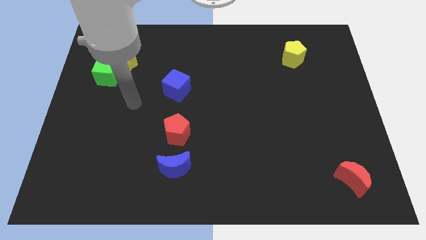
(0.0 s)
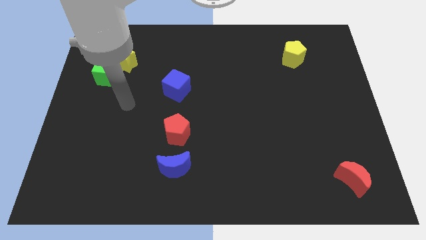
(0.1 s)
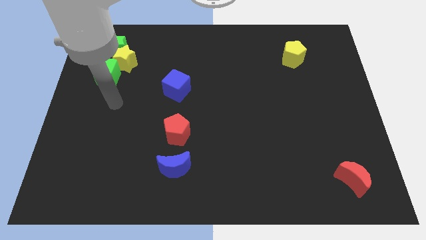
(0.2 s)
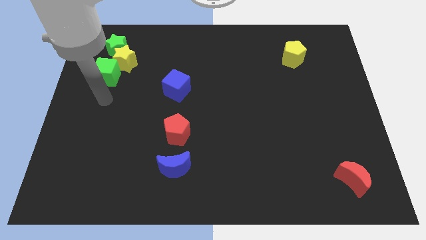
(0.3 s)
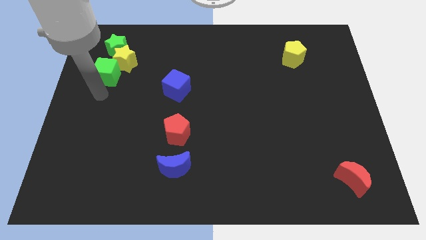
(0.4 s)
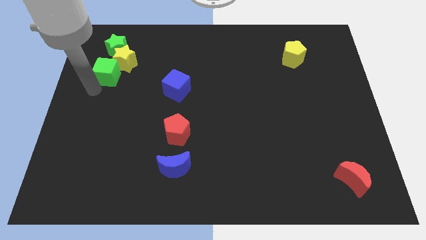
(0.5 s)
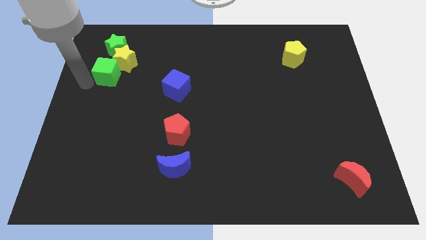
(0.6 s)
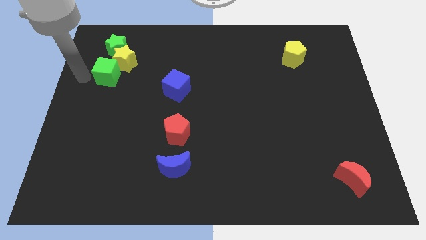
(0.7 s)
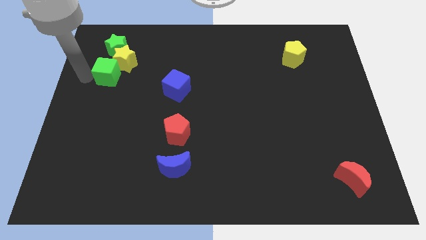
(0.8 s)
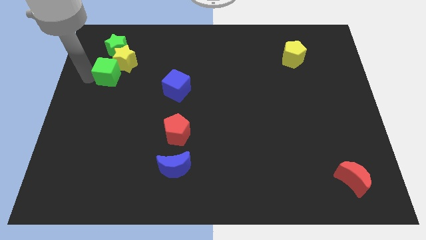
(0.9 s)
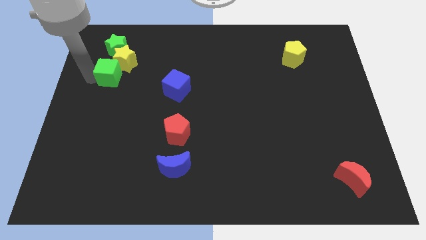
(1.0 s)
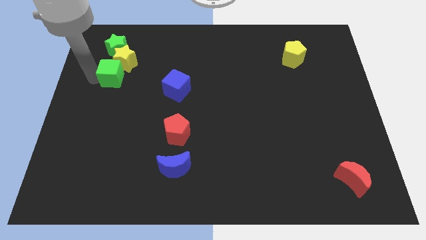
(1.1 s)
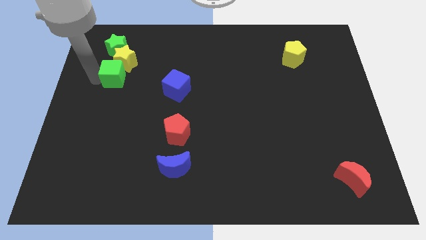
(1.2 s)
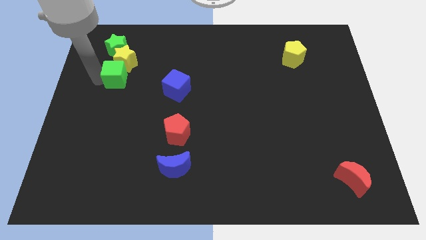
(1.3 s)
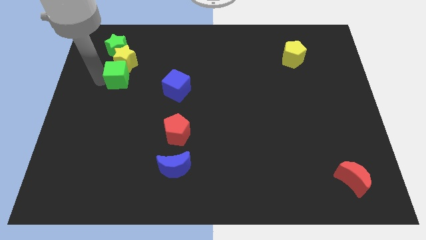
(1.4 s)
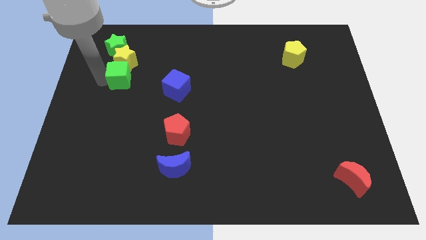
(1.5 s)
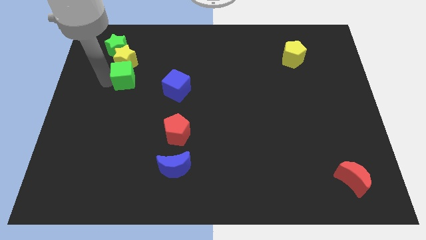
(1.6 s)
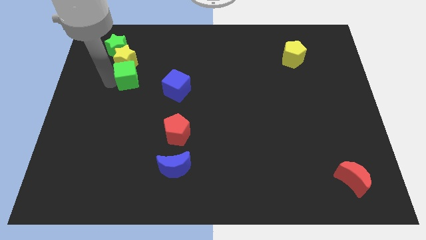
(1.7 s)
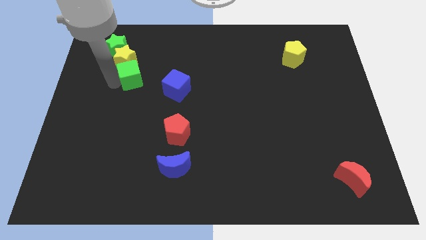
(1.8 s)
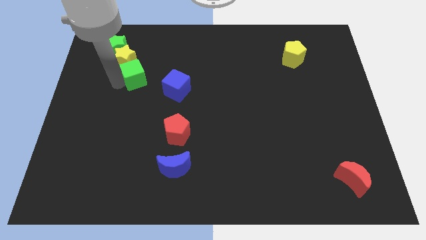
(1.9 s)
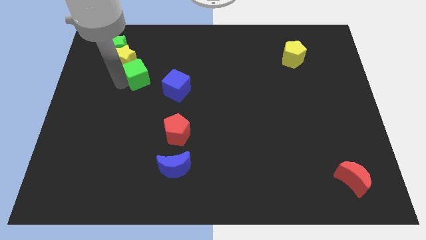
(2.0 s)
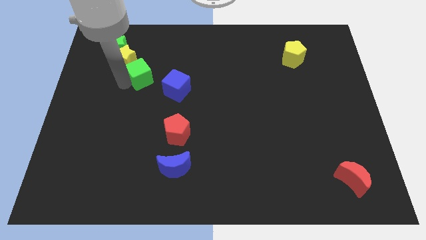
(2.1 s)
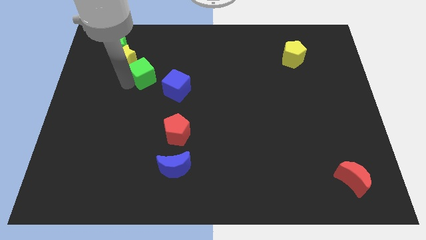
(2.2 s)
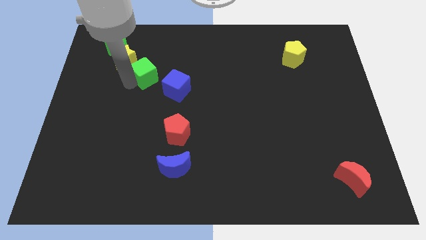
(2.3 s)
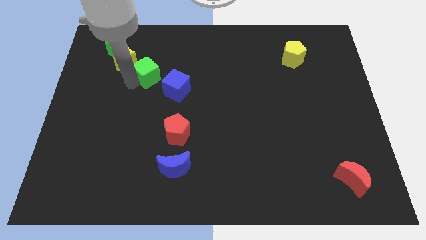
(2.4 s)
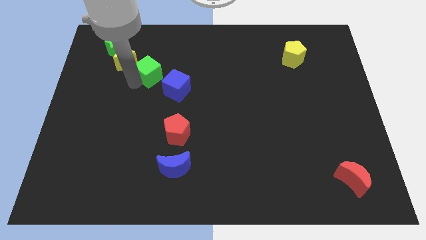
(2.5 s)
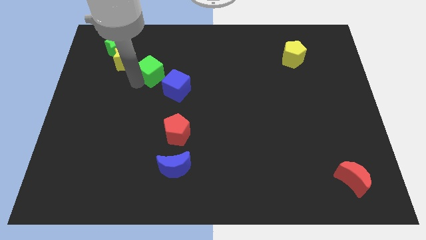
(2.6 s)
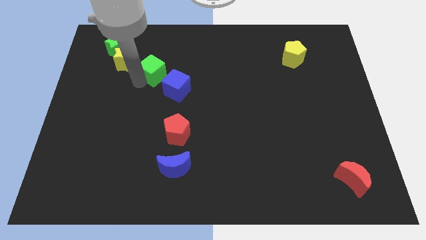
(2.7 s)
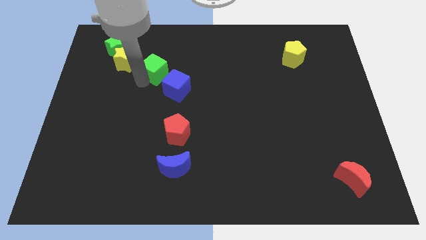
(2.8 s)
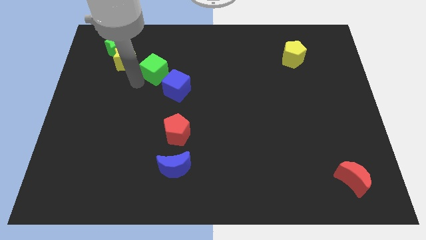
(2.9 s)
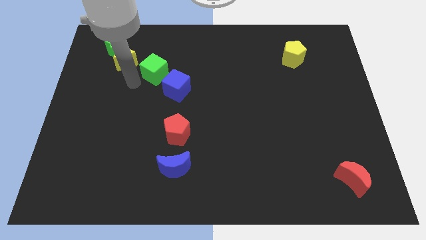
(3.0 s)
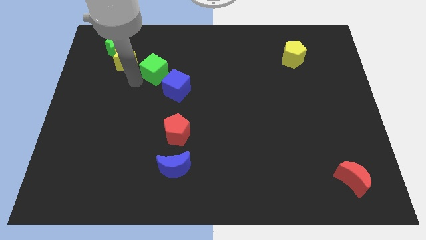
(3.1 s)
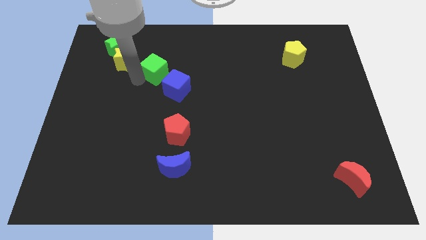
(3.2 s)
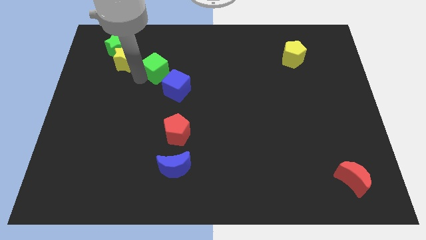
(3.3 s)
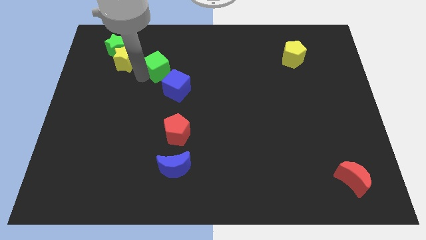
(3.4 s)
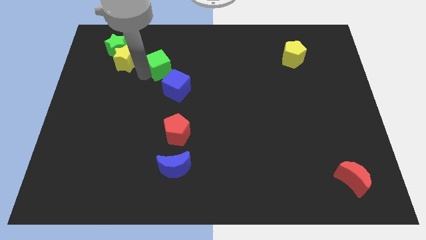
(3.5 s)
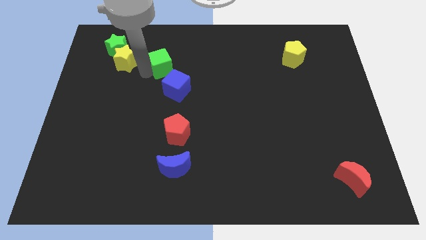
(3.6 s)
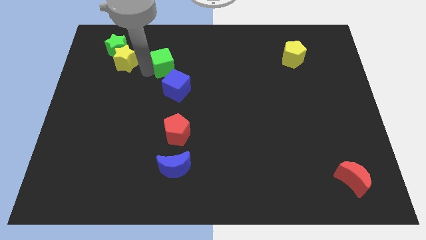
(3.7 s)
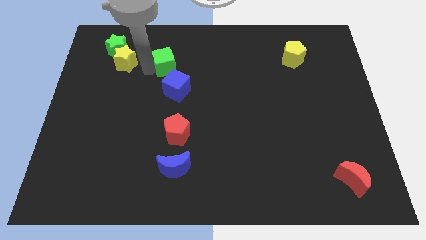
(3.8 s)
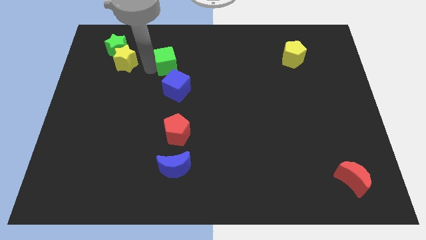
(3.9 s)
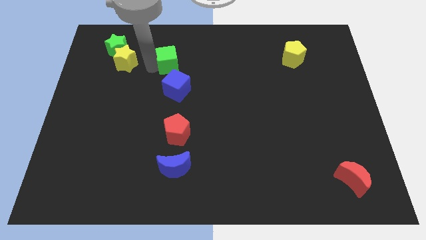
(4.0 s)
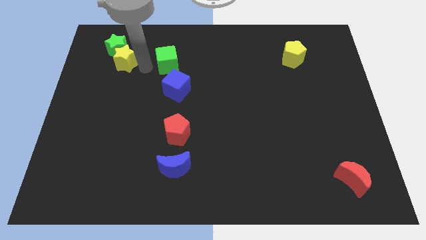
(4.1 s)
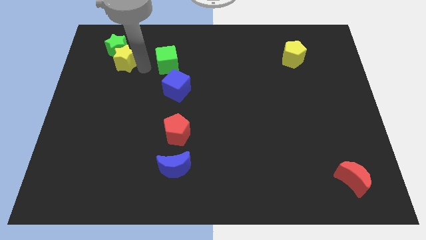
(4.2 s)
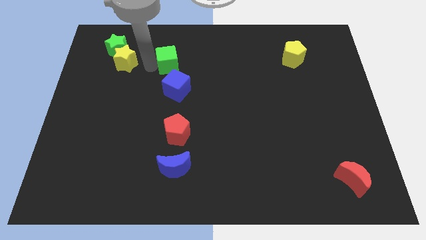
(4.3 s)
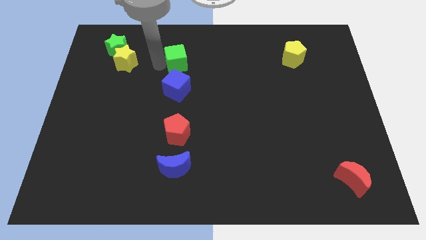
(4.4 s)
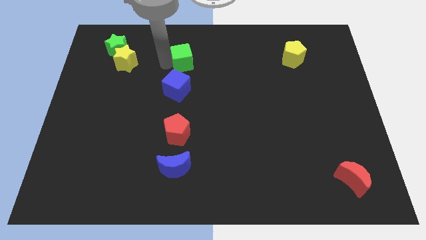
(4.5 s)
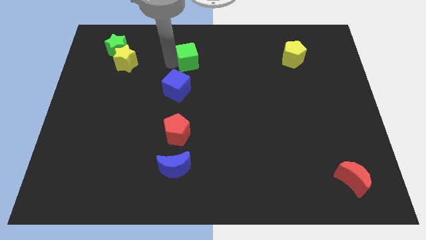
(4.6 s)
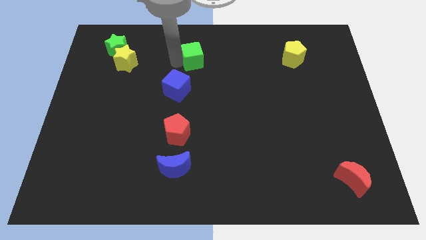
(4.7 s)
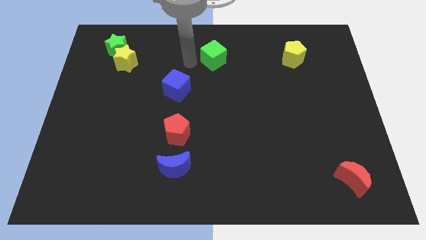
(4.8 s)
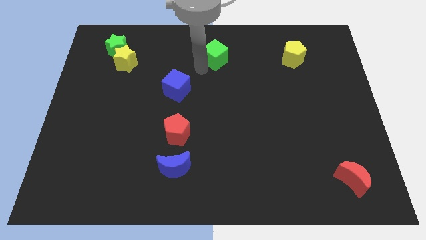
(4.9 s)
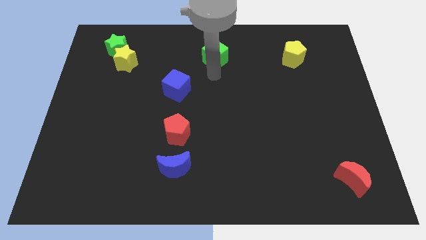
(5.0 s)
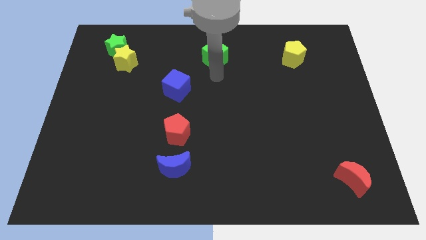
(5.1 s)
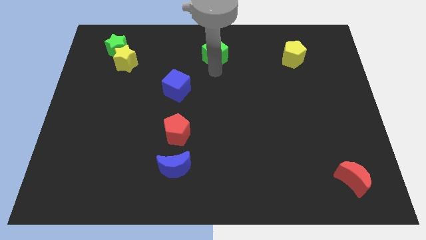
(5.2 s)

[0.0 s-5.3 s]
slide the green cube to the top

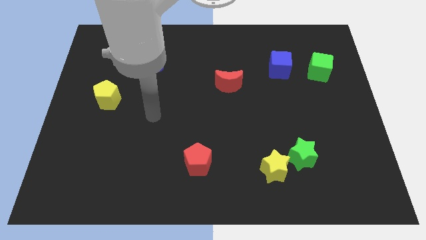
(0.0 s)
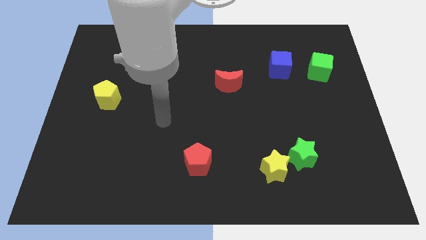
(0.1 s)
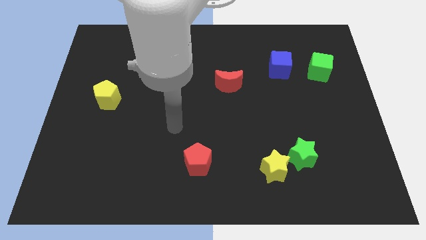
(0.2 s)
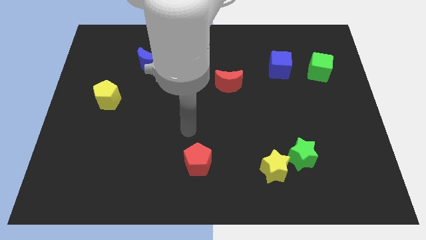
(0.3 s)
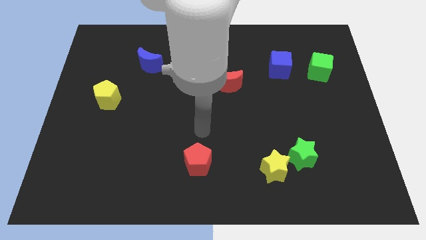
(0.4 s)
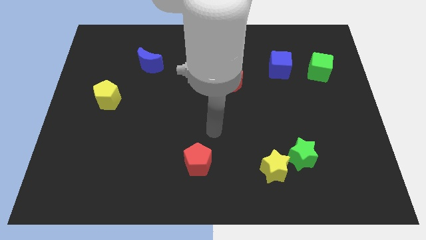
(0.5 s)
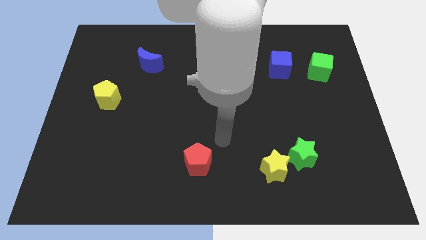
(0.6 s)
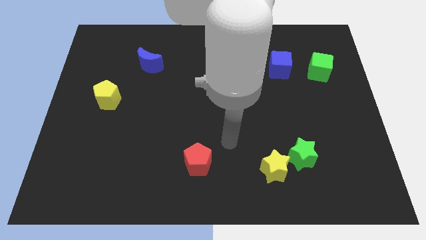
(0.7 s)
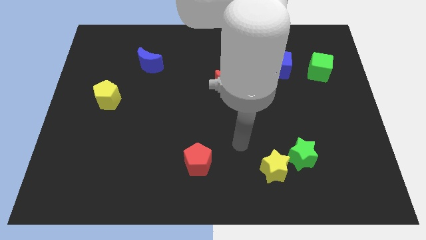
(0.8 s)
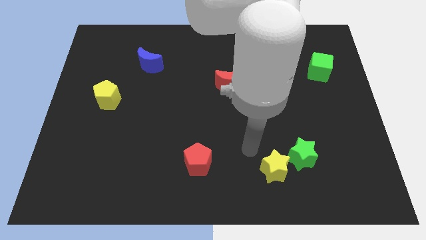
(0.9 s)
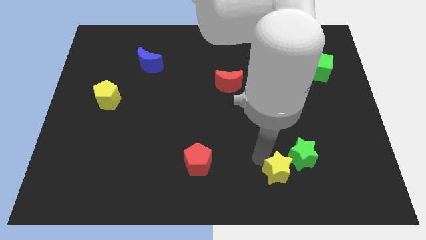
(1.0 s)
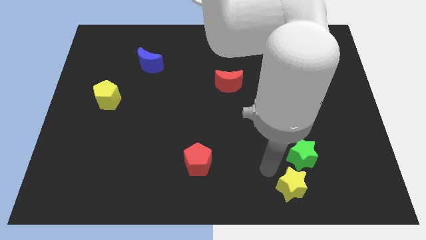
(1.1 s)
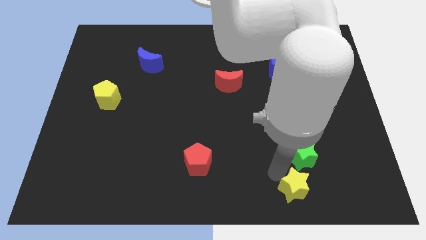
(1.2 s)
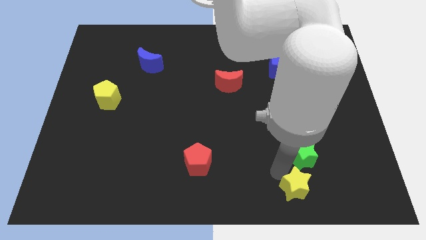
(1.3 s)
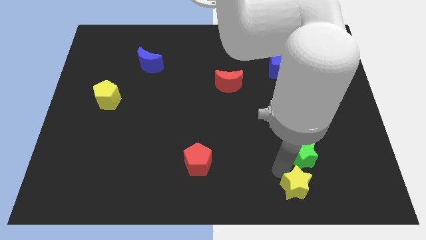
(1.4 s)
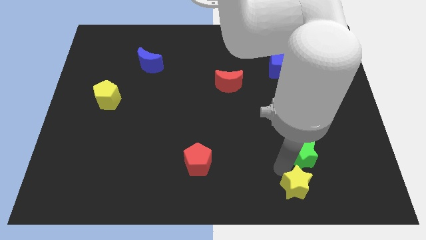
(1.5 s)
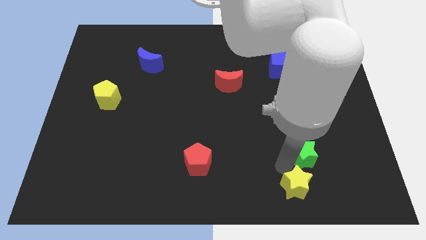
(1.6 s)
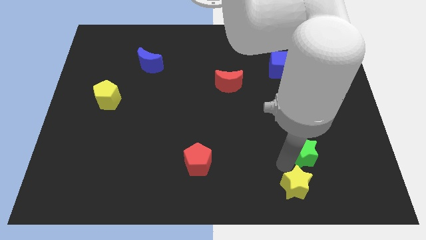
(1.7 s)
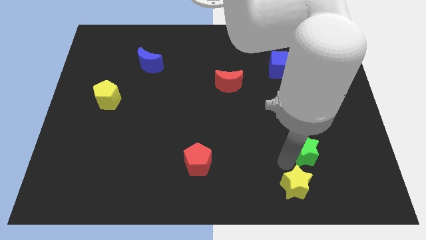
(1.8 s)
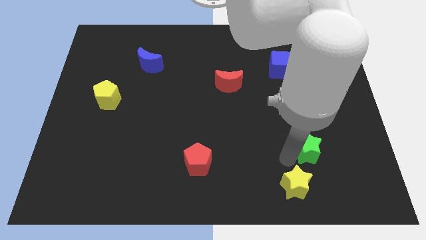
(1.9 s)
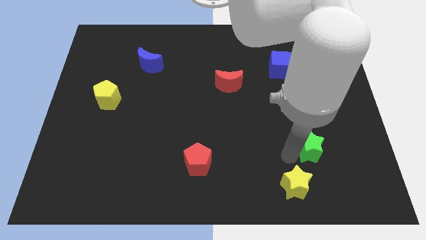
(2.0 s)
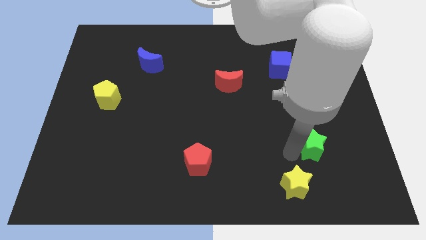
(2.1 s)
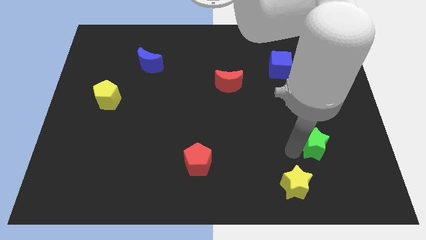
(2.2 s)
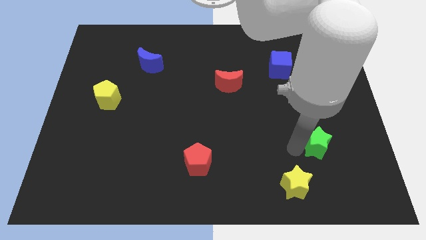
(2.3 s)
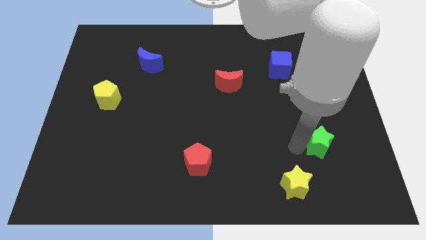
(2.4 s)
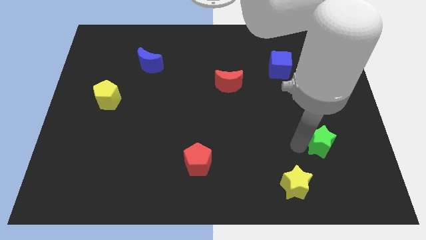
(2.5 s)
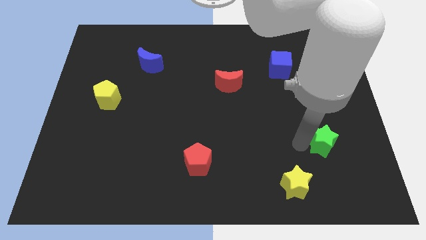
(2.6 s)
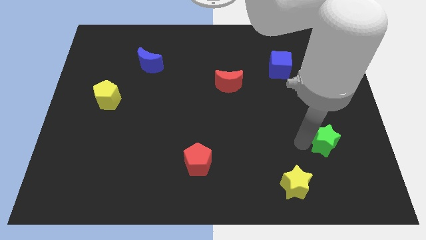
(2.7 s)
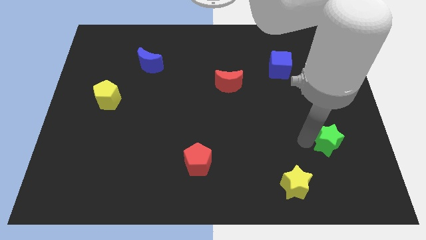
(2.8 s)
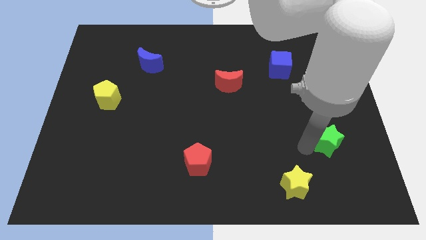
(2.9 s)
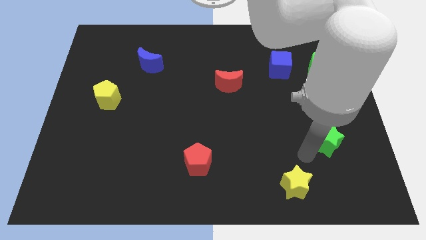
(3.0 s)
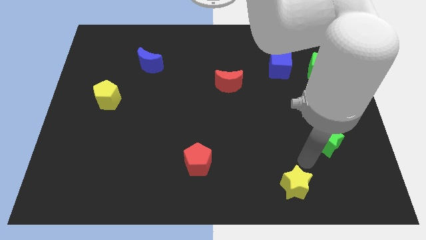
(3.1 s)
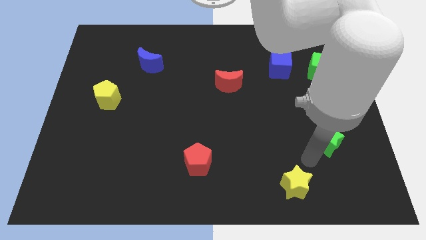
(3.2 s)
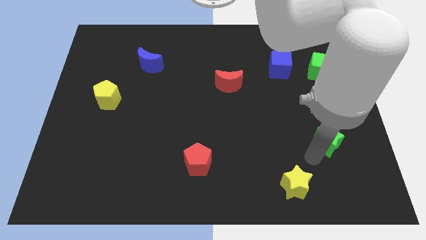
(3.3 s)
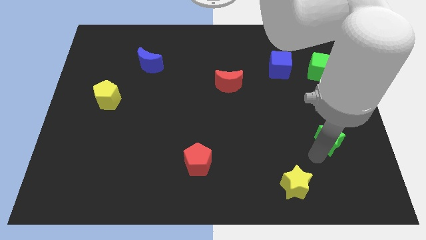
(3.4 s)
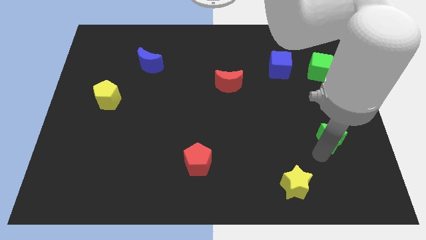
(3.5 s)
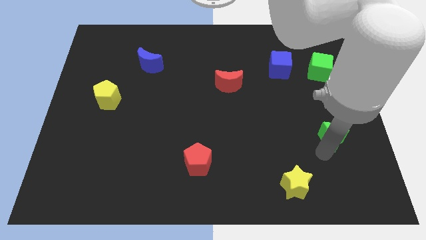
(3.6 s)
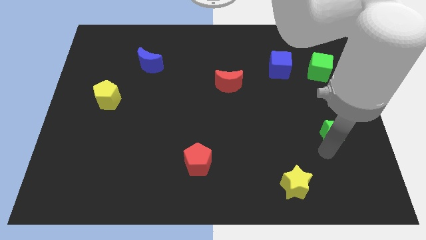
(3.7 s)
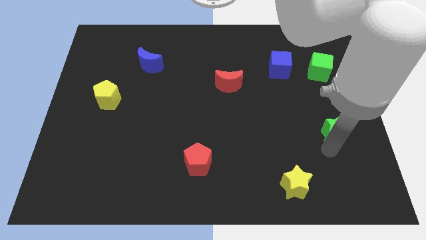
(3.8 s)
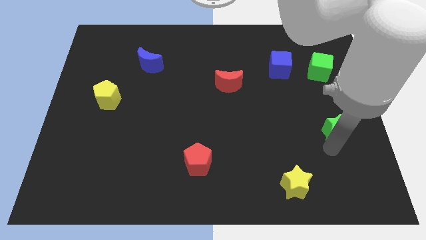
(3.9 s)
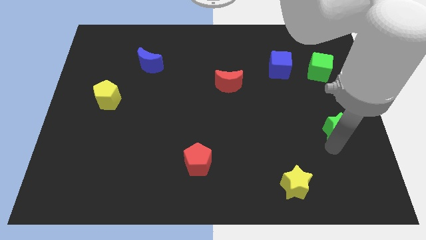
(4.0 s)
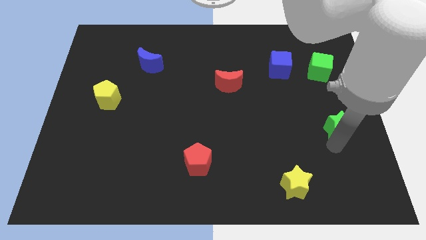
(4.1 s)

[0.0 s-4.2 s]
slide the green star to the center right
